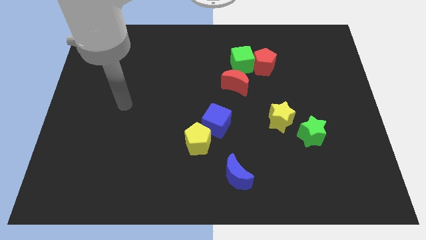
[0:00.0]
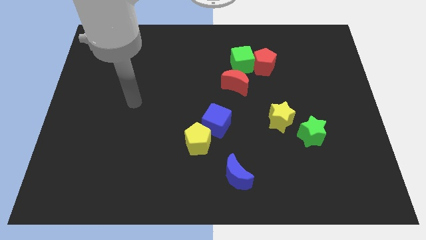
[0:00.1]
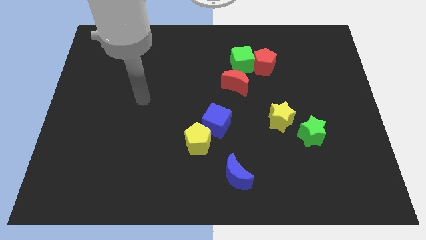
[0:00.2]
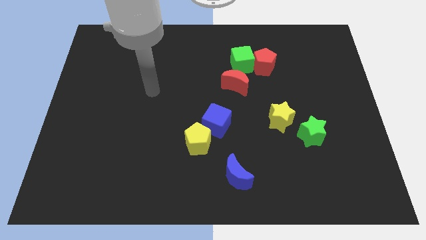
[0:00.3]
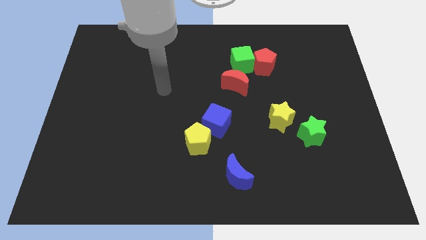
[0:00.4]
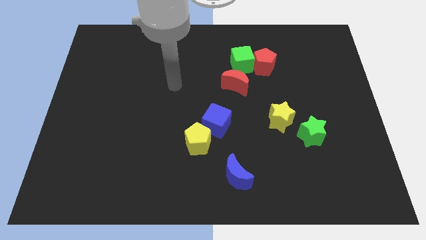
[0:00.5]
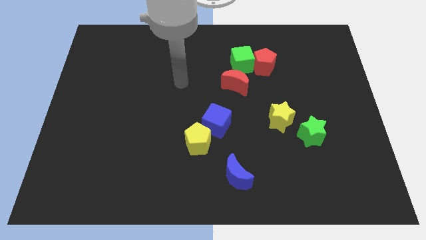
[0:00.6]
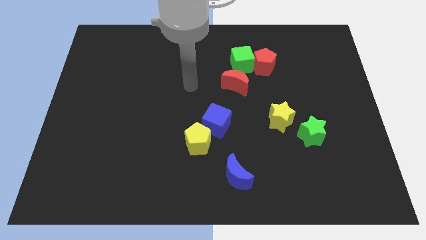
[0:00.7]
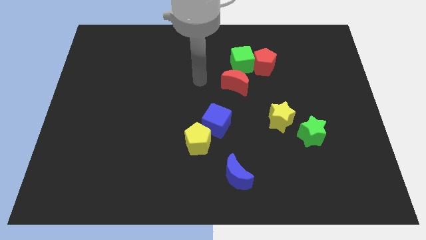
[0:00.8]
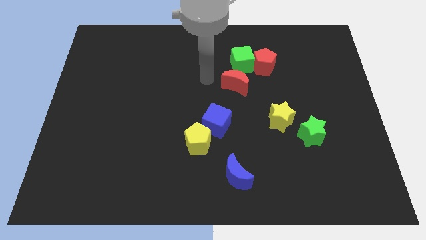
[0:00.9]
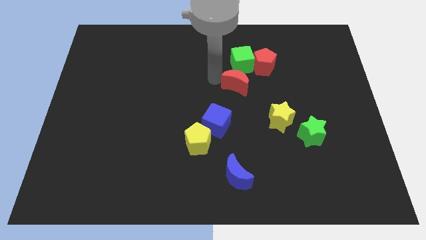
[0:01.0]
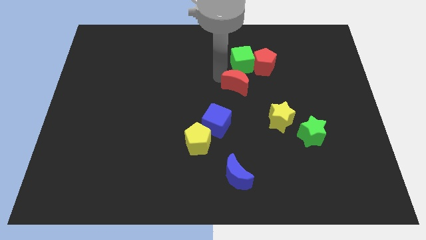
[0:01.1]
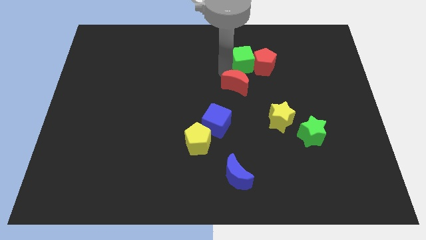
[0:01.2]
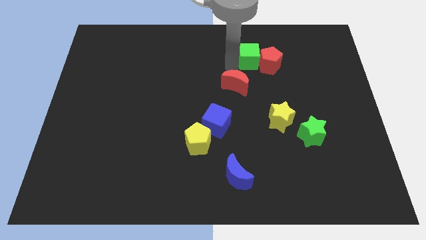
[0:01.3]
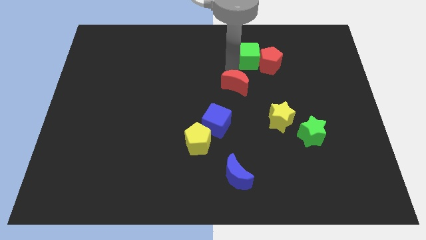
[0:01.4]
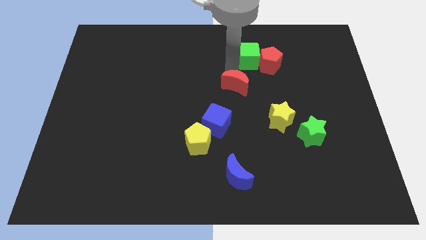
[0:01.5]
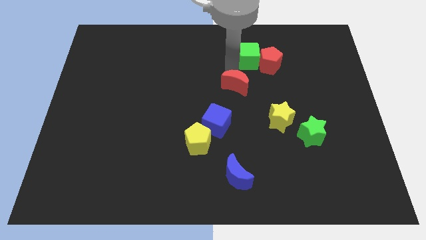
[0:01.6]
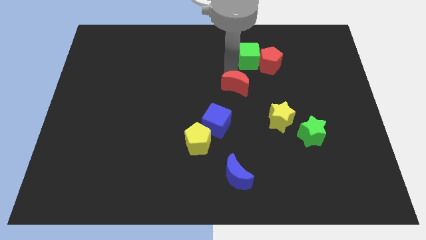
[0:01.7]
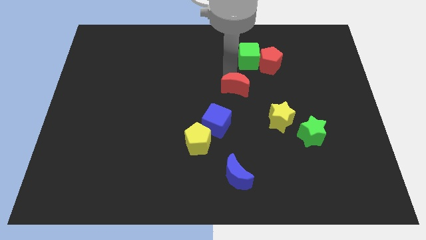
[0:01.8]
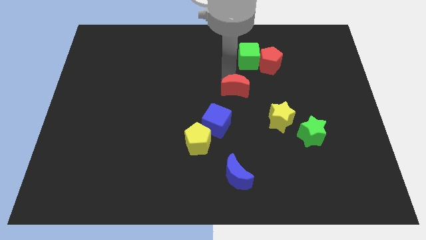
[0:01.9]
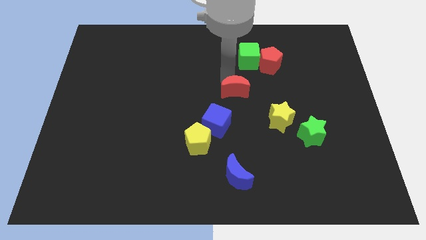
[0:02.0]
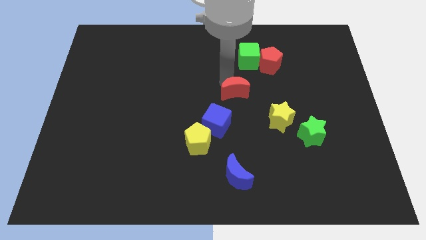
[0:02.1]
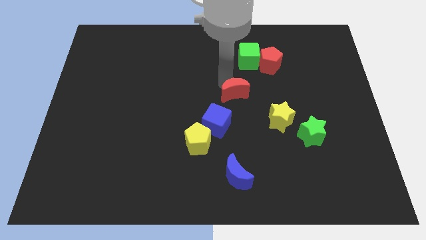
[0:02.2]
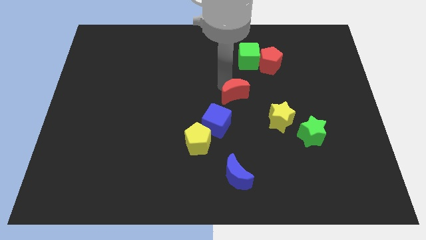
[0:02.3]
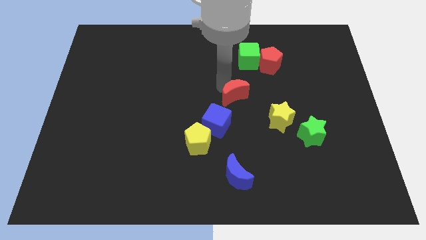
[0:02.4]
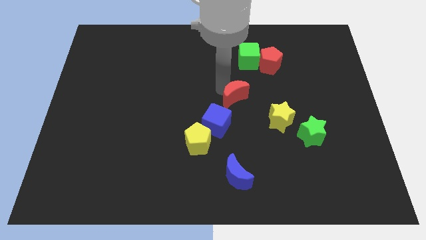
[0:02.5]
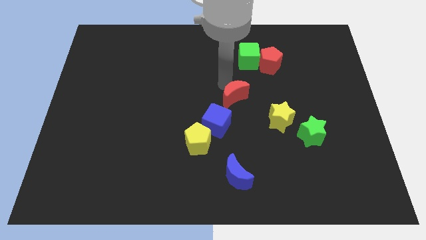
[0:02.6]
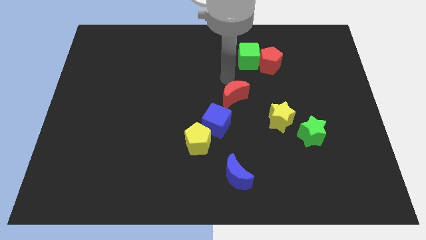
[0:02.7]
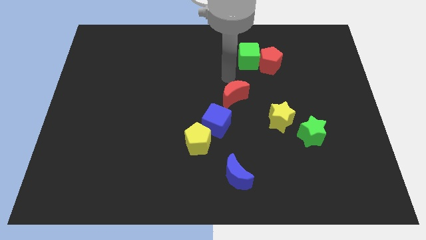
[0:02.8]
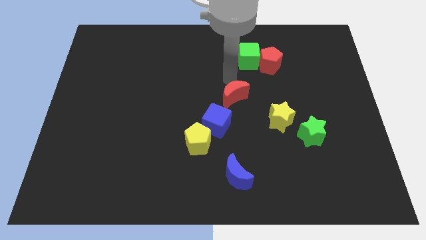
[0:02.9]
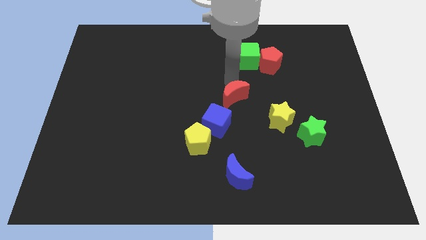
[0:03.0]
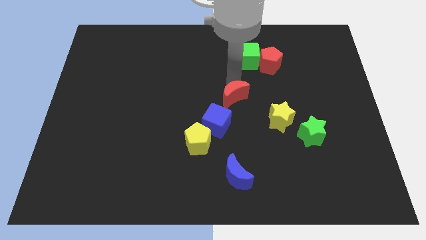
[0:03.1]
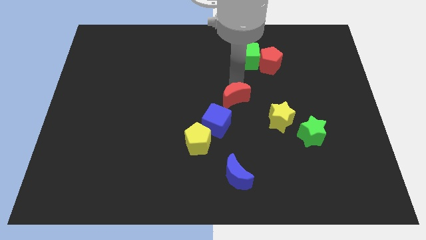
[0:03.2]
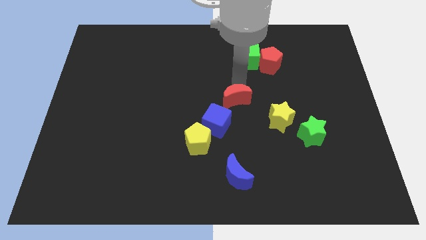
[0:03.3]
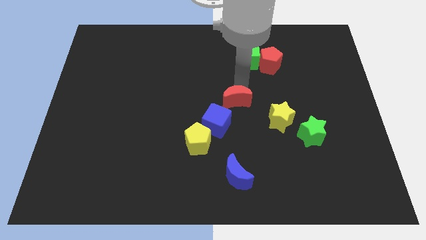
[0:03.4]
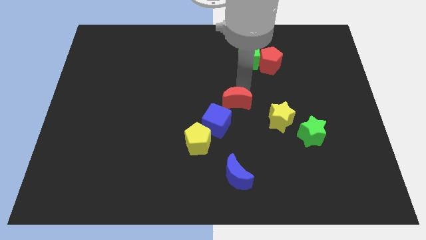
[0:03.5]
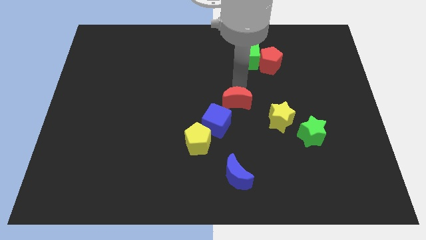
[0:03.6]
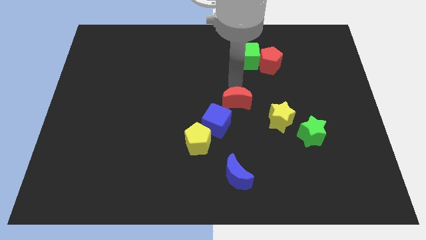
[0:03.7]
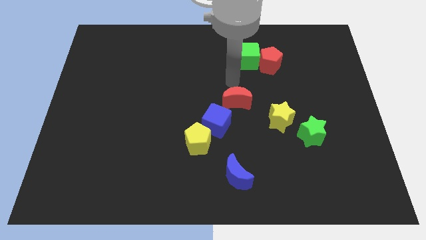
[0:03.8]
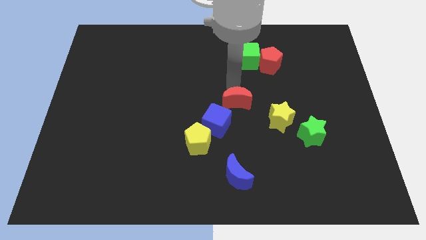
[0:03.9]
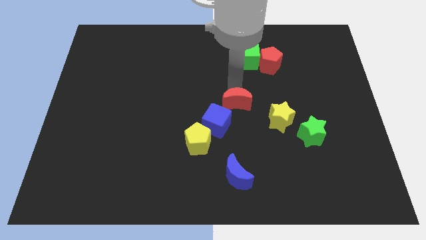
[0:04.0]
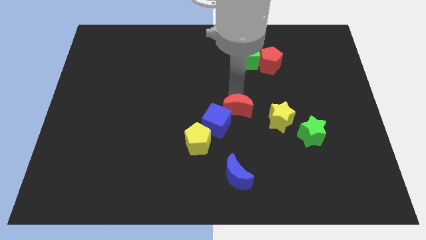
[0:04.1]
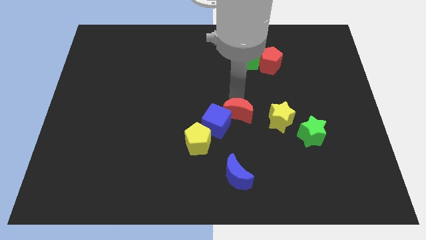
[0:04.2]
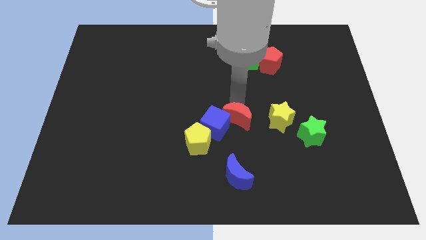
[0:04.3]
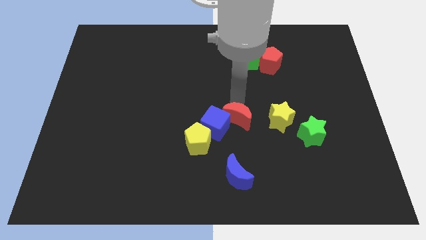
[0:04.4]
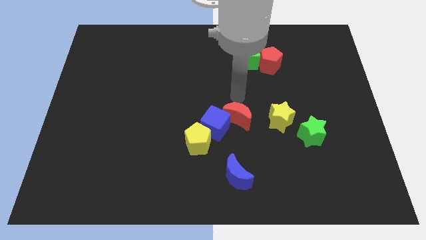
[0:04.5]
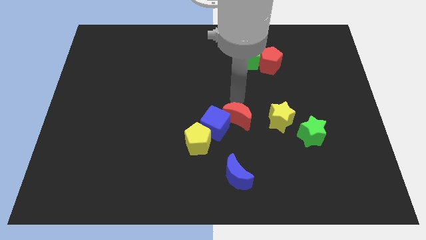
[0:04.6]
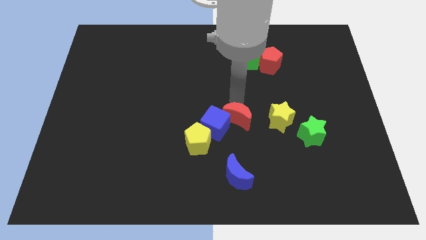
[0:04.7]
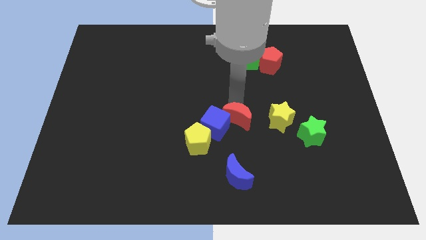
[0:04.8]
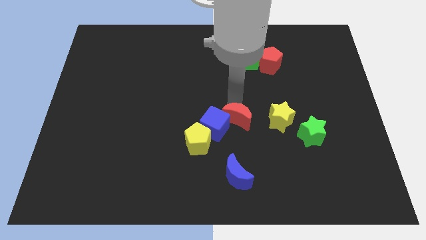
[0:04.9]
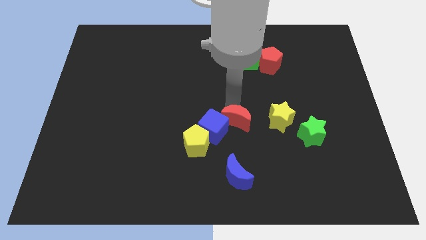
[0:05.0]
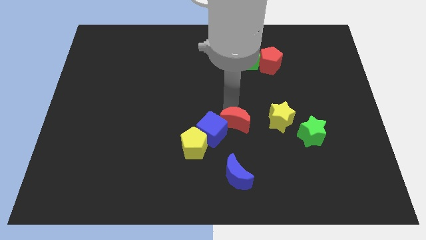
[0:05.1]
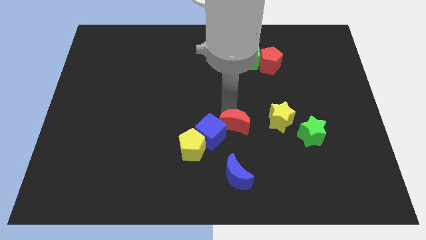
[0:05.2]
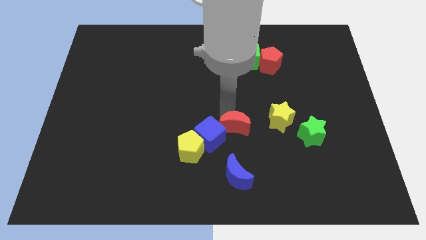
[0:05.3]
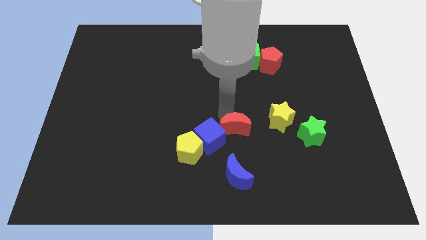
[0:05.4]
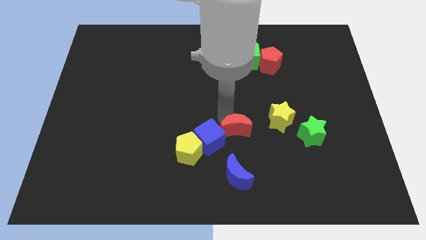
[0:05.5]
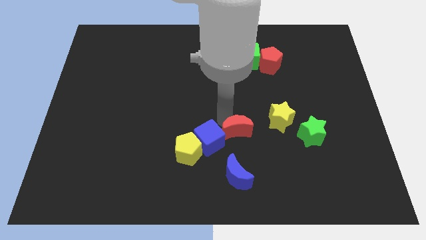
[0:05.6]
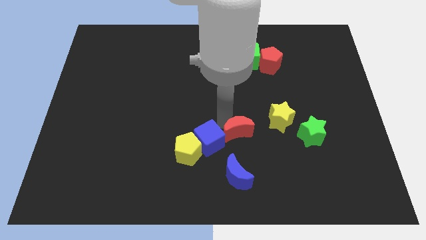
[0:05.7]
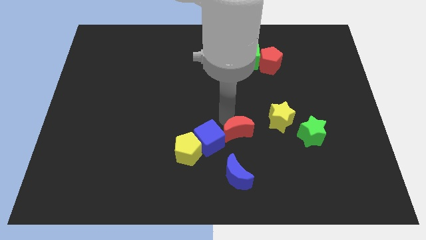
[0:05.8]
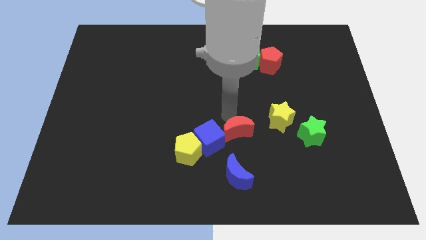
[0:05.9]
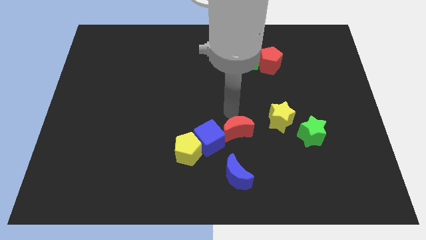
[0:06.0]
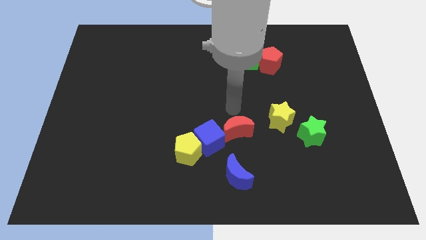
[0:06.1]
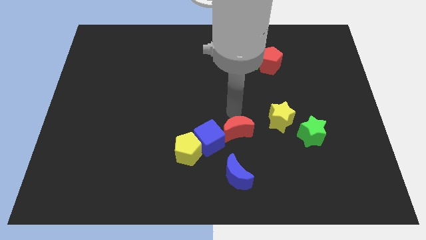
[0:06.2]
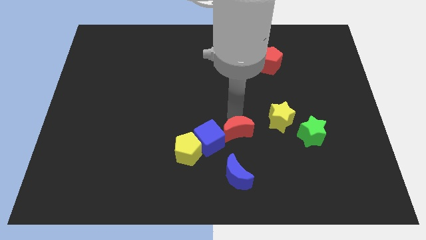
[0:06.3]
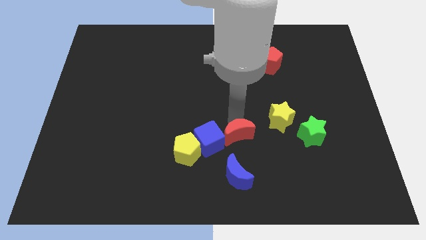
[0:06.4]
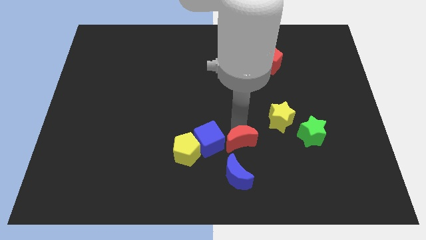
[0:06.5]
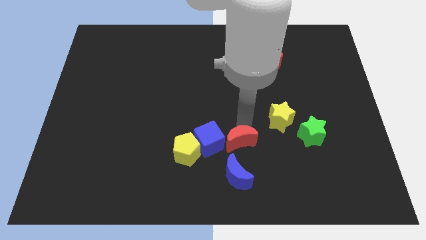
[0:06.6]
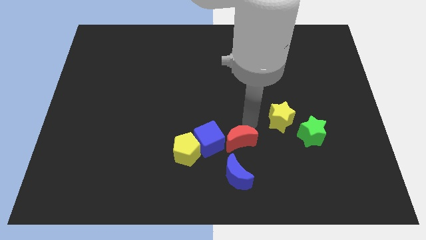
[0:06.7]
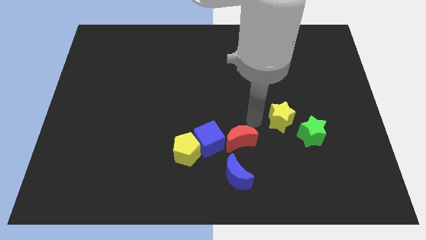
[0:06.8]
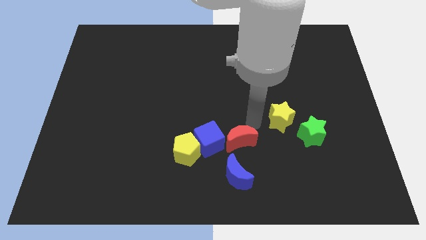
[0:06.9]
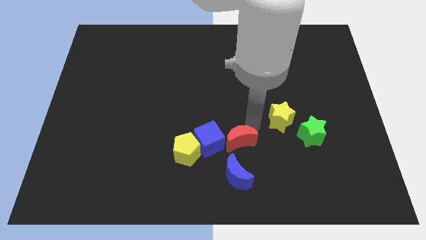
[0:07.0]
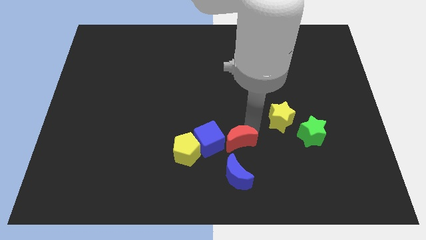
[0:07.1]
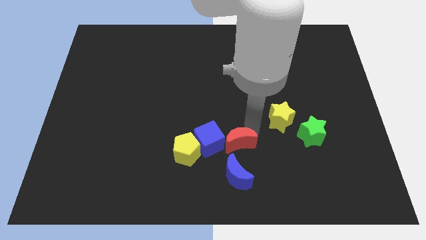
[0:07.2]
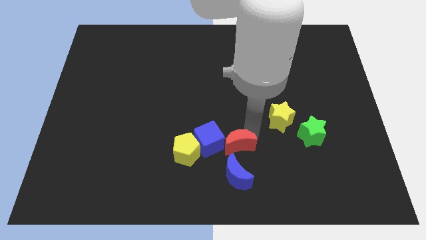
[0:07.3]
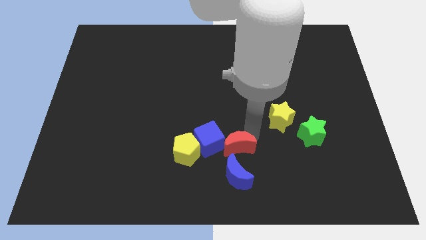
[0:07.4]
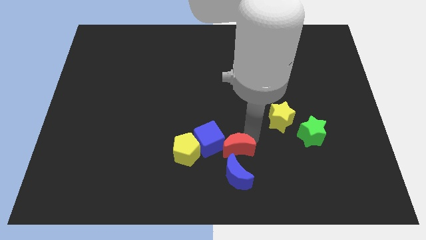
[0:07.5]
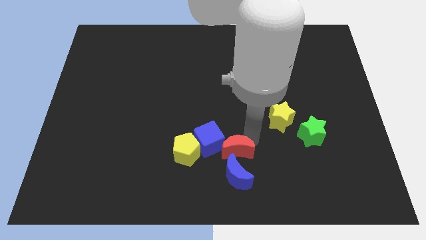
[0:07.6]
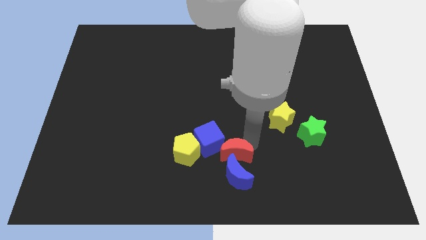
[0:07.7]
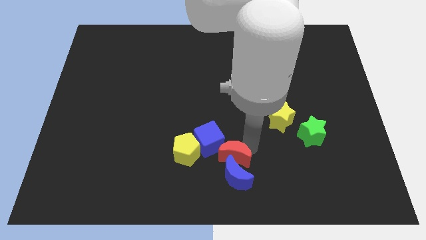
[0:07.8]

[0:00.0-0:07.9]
push the red moon to the bottom side
